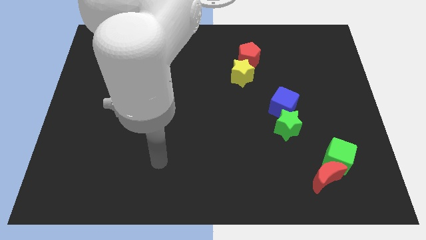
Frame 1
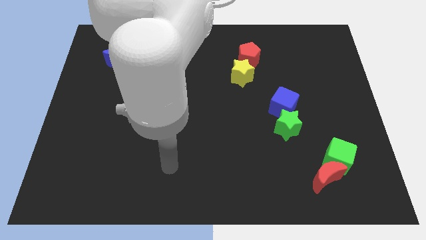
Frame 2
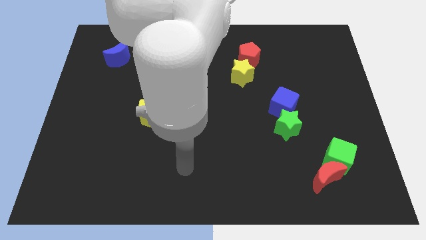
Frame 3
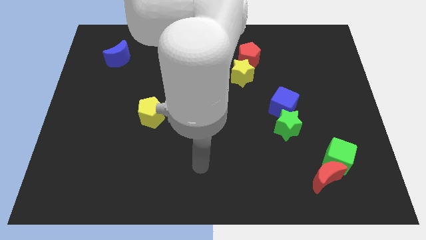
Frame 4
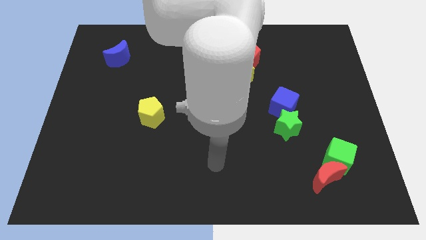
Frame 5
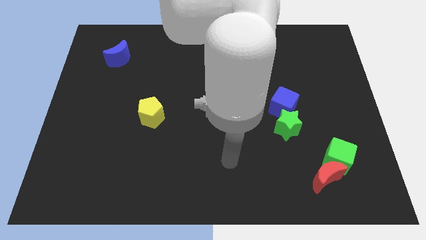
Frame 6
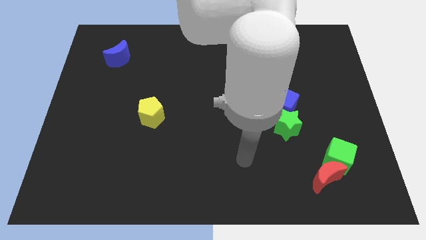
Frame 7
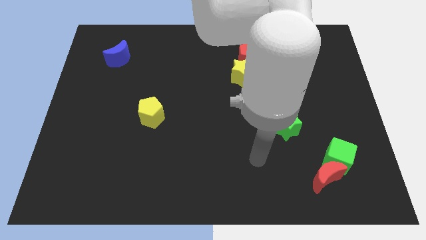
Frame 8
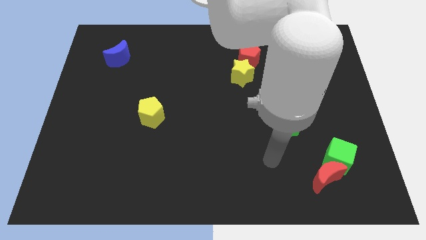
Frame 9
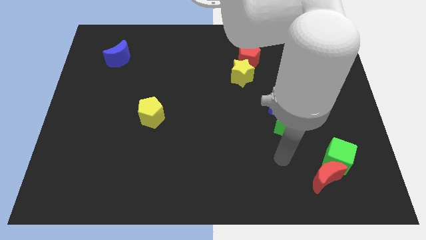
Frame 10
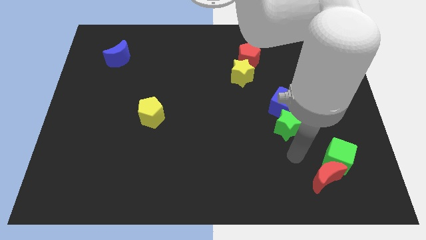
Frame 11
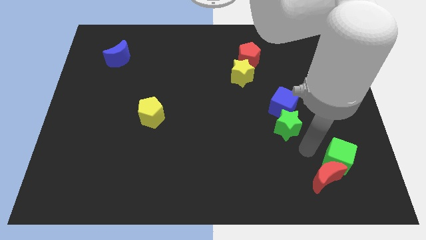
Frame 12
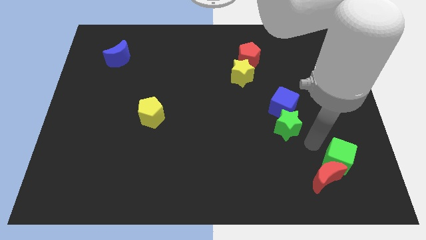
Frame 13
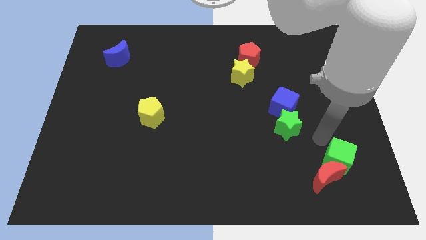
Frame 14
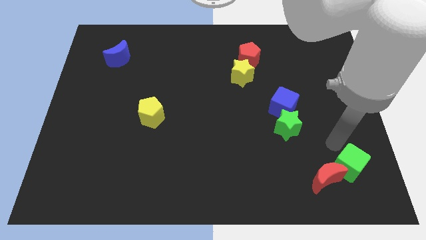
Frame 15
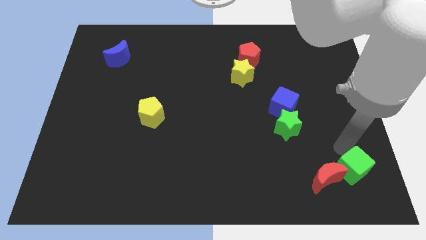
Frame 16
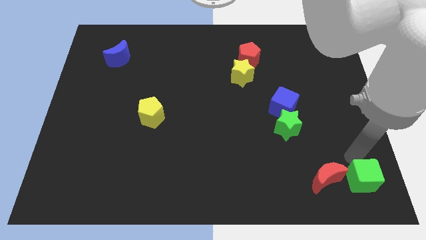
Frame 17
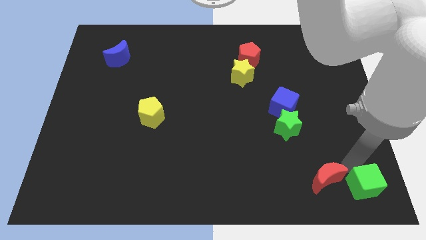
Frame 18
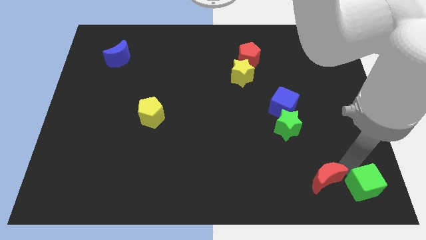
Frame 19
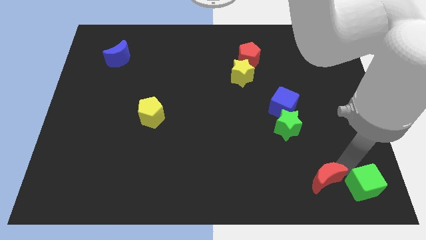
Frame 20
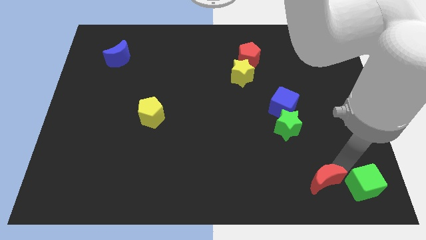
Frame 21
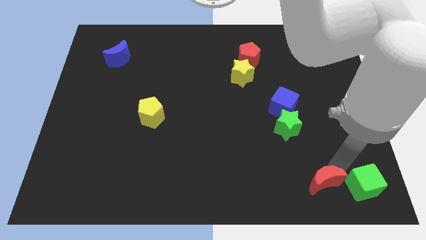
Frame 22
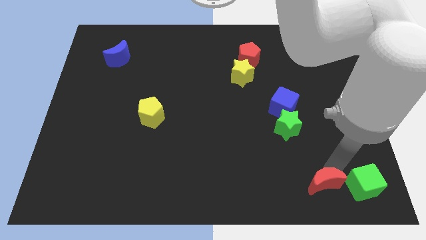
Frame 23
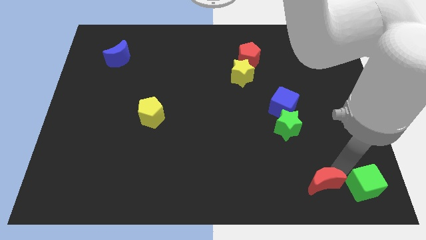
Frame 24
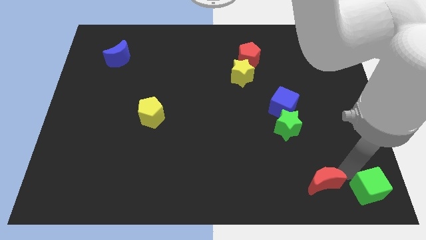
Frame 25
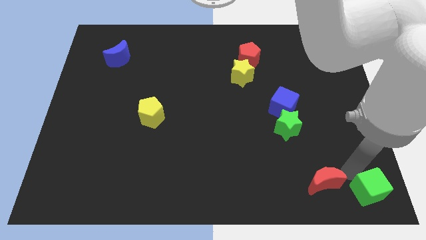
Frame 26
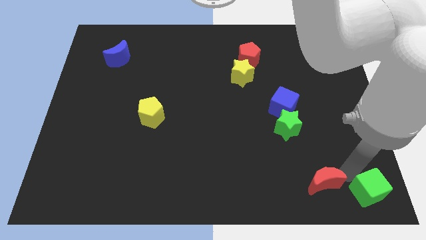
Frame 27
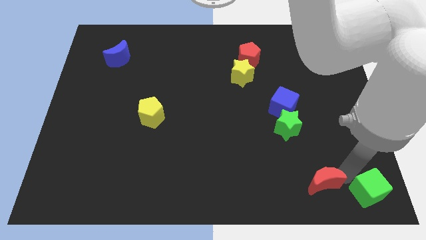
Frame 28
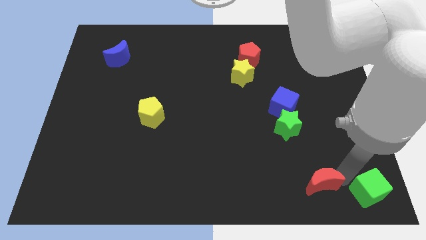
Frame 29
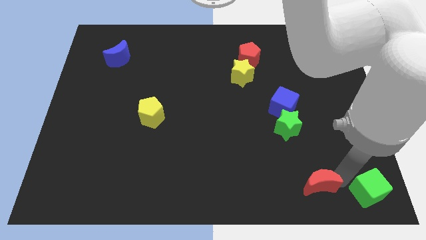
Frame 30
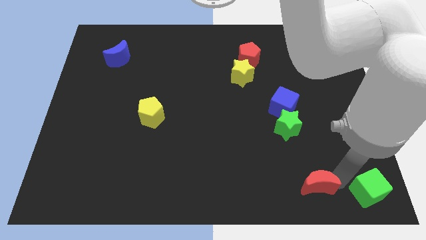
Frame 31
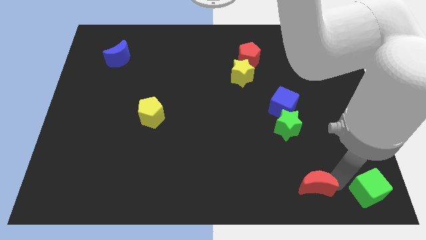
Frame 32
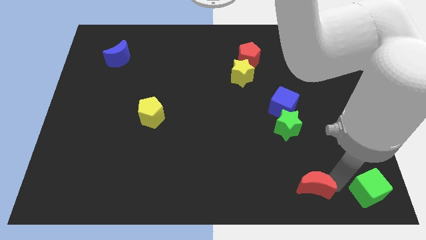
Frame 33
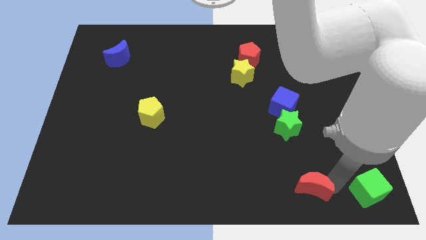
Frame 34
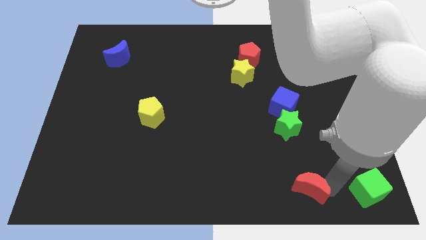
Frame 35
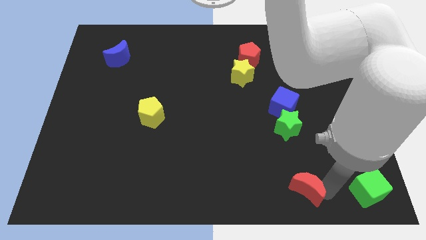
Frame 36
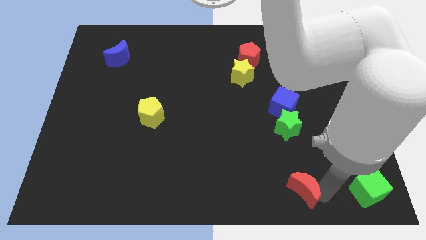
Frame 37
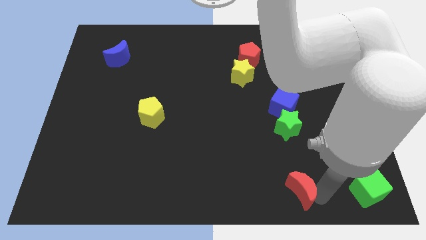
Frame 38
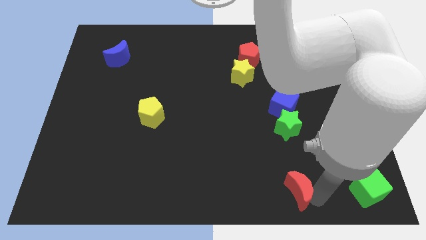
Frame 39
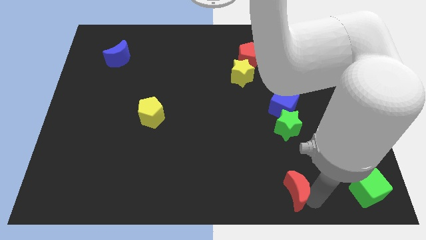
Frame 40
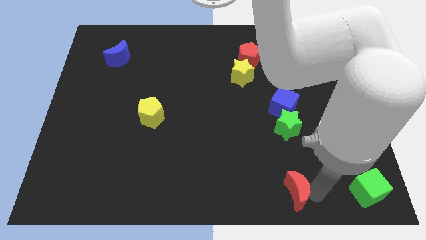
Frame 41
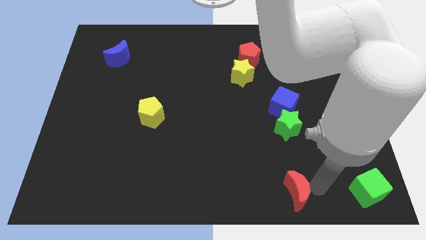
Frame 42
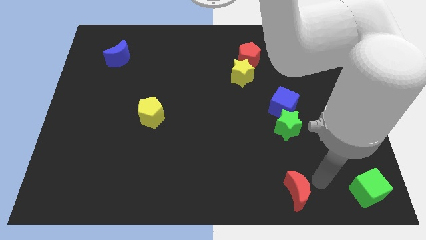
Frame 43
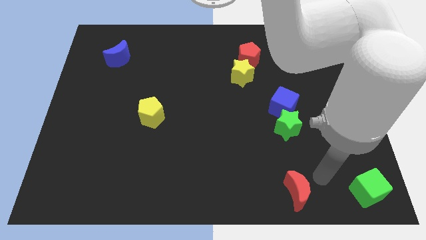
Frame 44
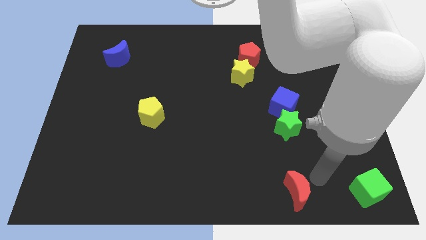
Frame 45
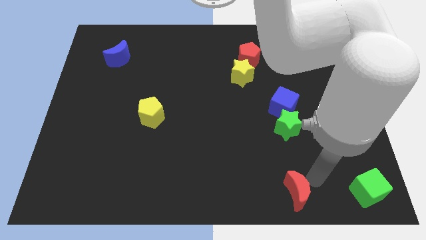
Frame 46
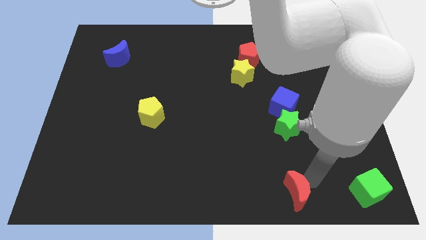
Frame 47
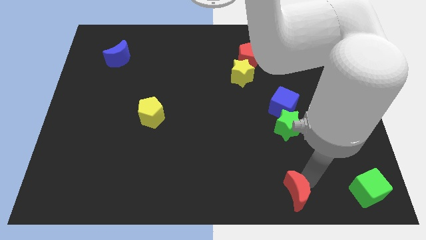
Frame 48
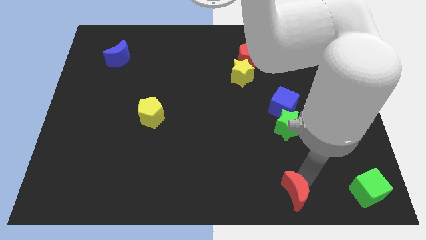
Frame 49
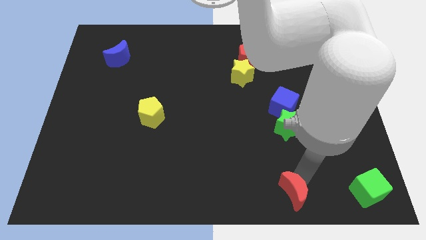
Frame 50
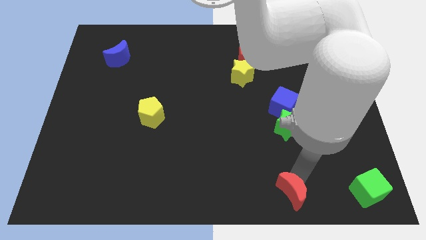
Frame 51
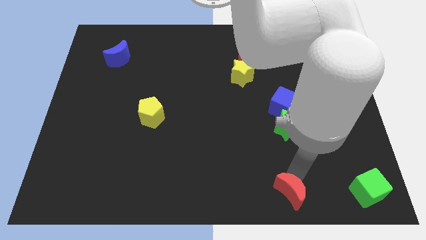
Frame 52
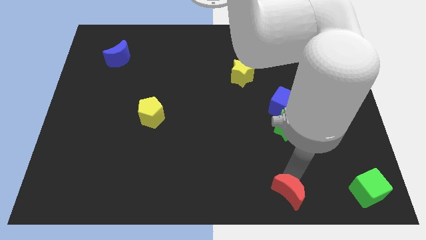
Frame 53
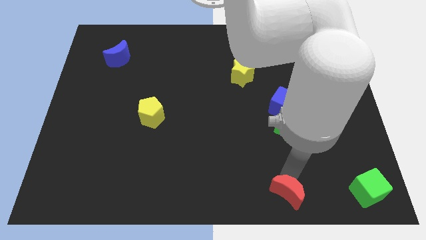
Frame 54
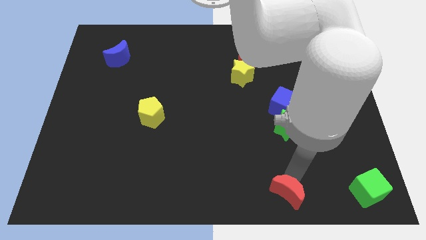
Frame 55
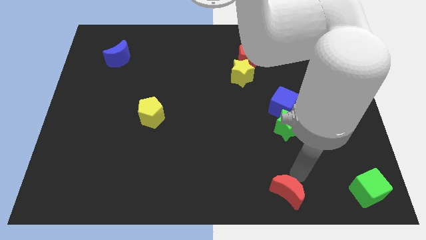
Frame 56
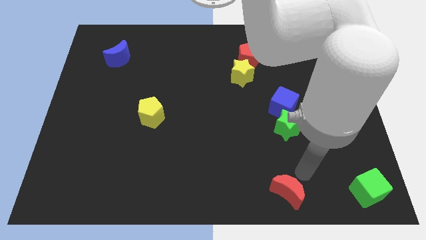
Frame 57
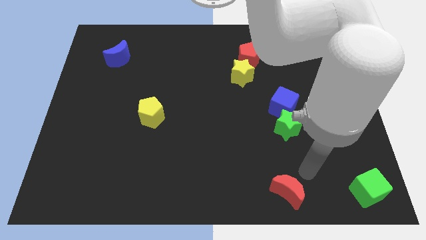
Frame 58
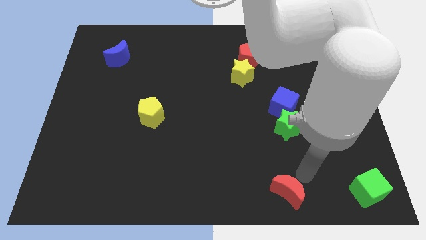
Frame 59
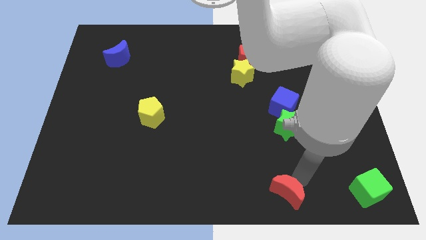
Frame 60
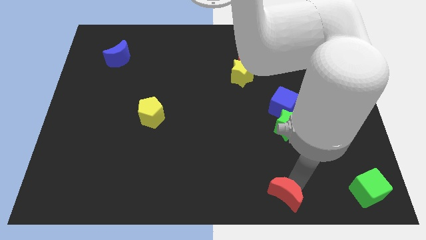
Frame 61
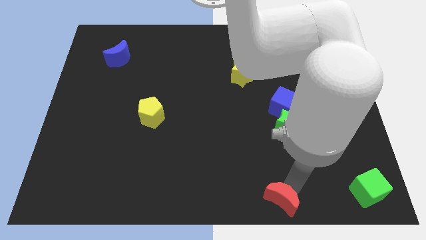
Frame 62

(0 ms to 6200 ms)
move the red moon to the bottom side

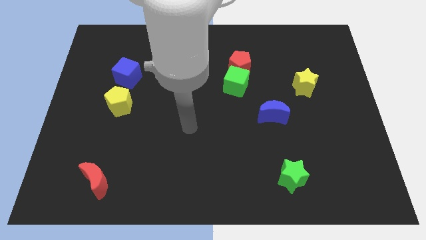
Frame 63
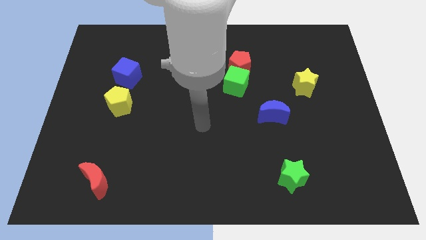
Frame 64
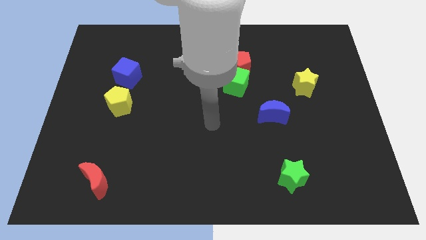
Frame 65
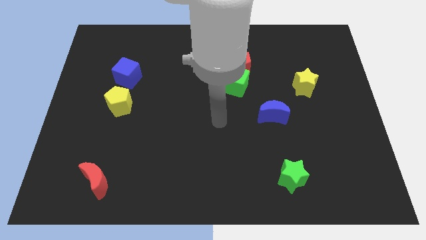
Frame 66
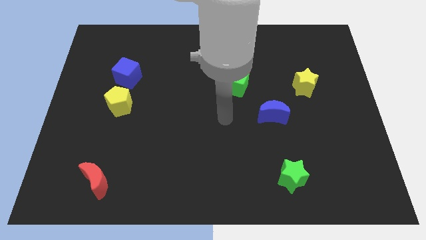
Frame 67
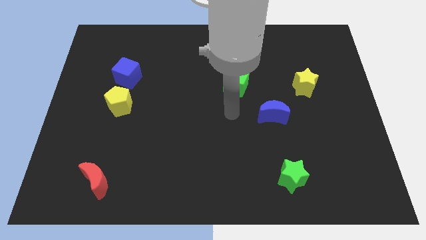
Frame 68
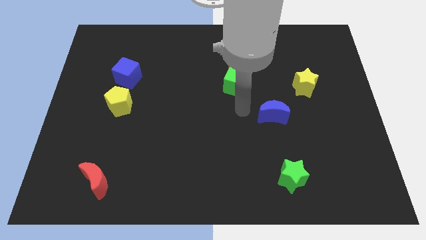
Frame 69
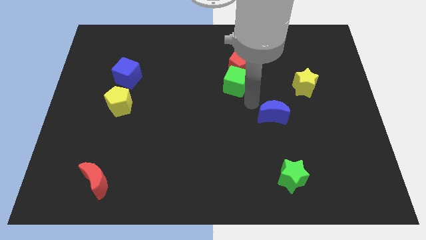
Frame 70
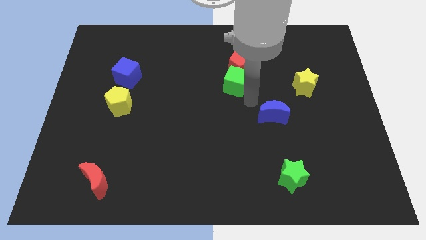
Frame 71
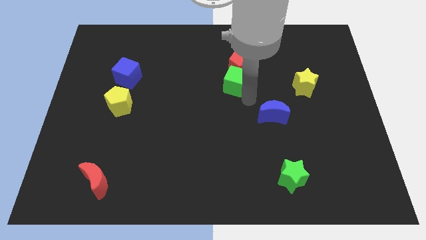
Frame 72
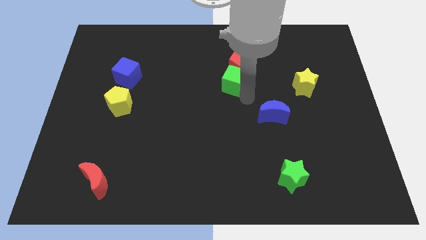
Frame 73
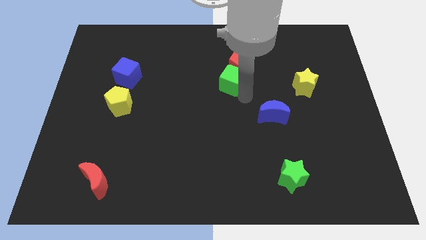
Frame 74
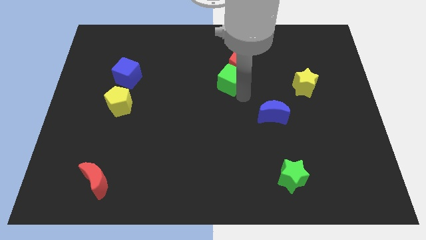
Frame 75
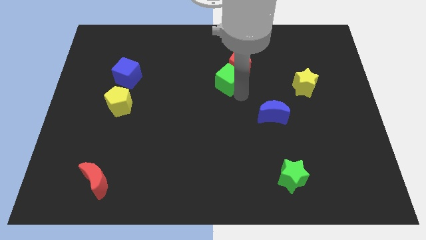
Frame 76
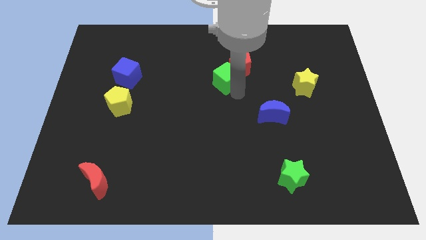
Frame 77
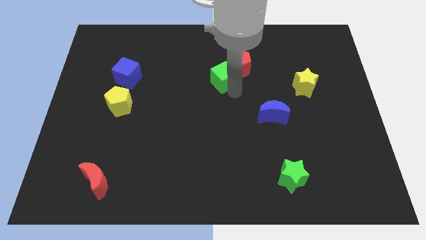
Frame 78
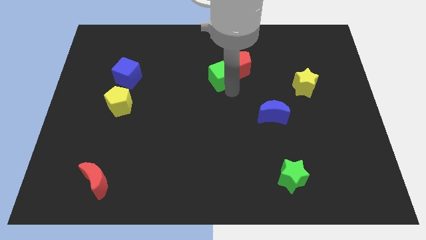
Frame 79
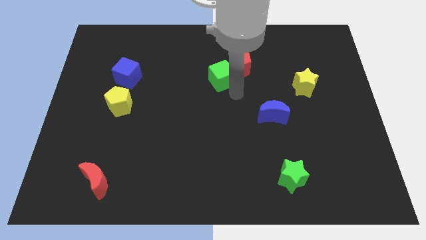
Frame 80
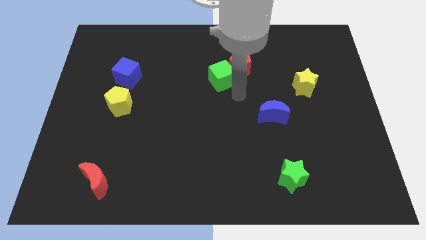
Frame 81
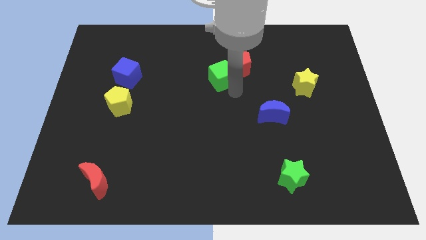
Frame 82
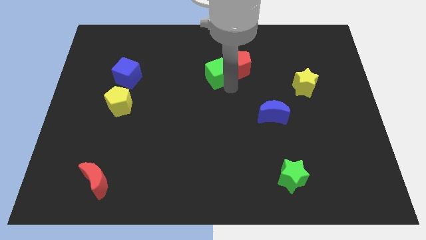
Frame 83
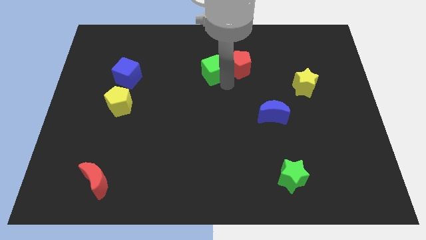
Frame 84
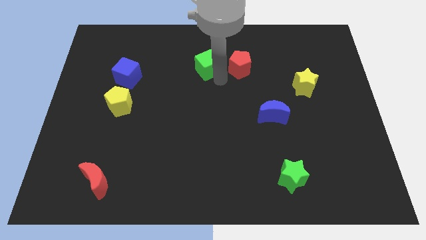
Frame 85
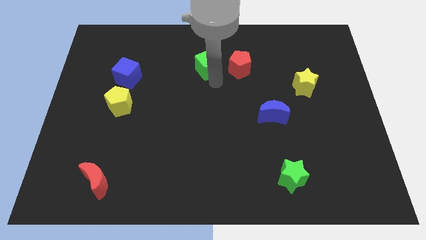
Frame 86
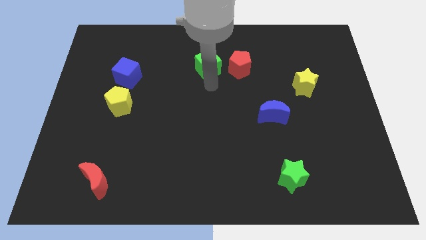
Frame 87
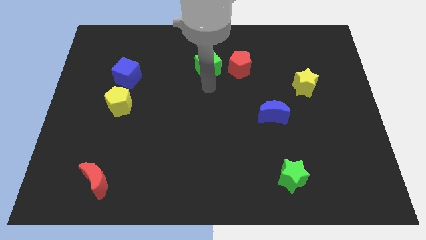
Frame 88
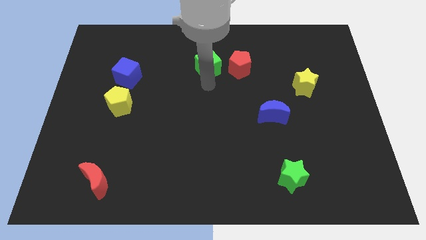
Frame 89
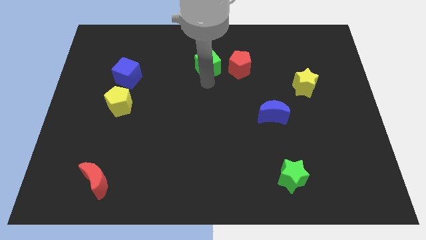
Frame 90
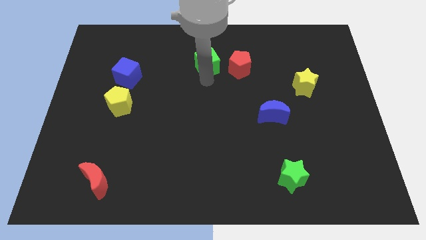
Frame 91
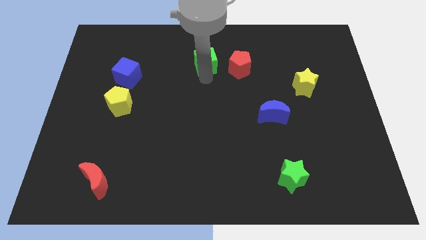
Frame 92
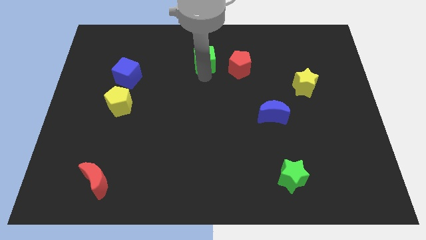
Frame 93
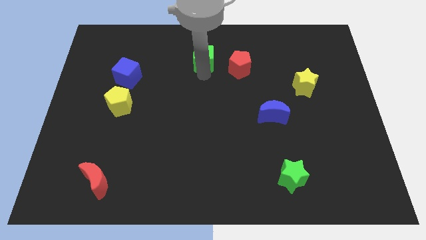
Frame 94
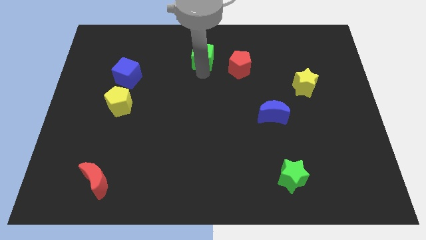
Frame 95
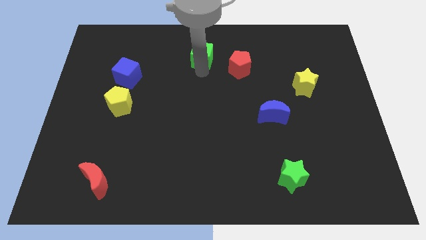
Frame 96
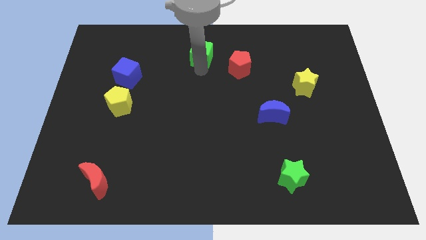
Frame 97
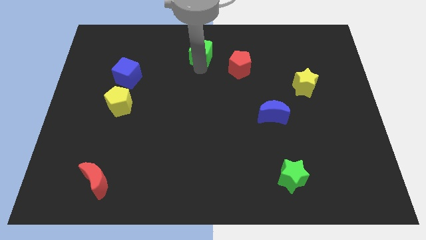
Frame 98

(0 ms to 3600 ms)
push the green cube to the top
